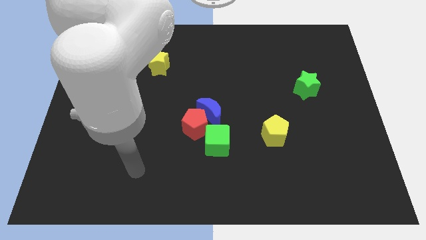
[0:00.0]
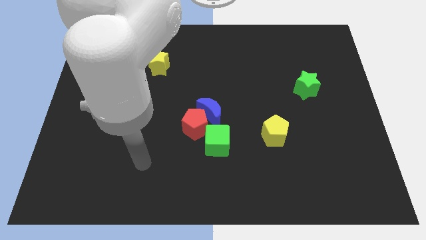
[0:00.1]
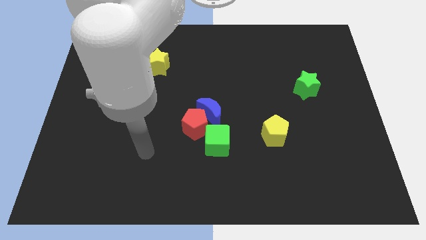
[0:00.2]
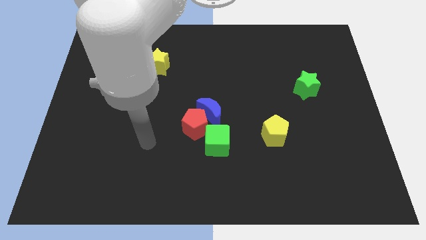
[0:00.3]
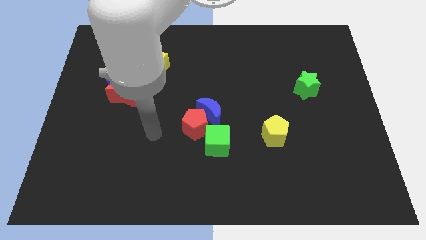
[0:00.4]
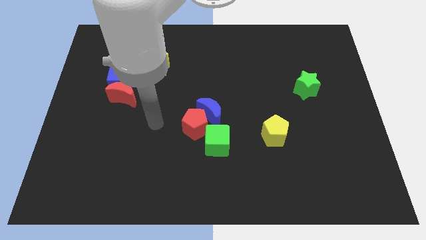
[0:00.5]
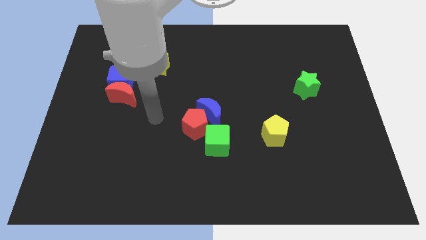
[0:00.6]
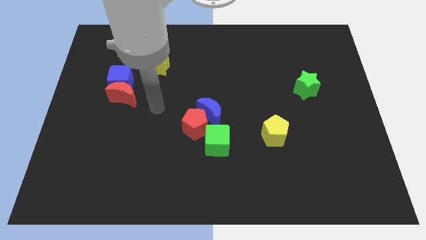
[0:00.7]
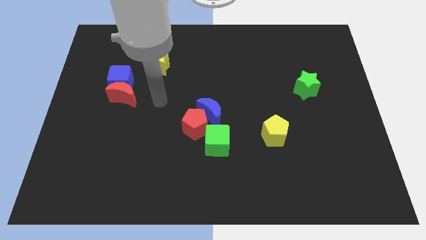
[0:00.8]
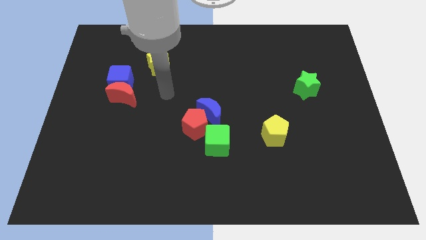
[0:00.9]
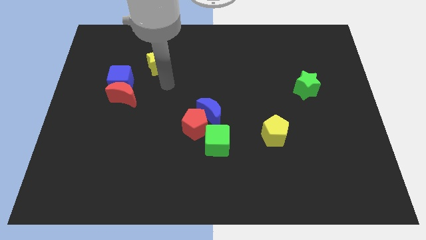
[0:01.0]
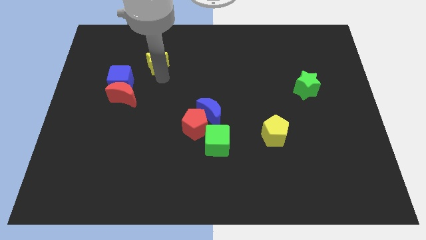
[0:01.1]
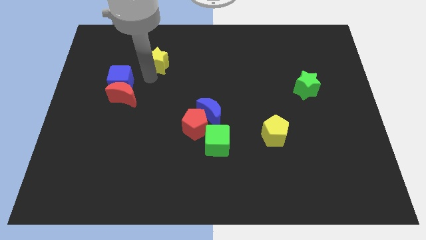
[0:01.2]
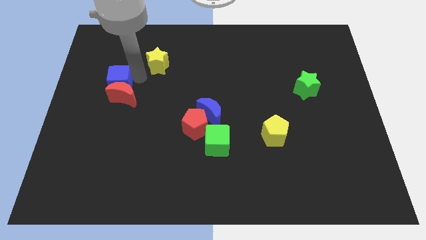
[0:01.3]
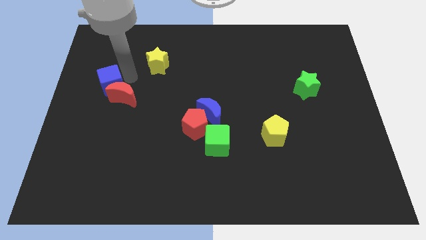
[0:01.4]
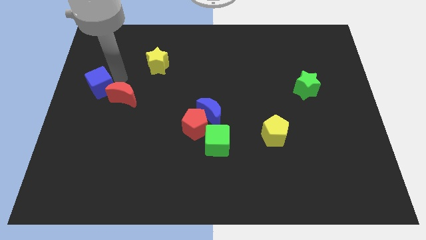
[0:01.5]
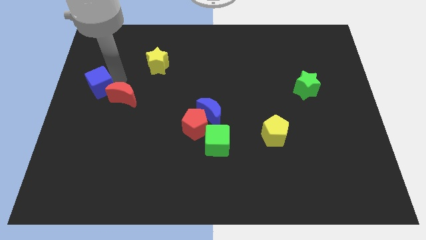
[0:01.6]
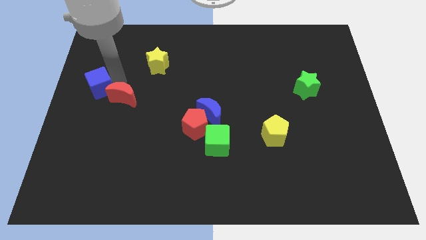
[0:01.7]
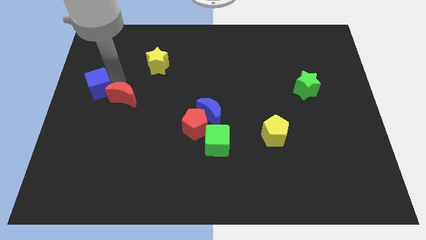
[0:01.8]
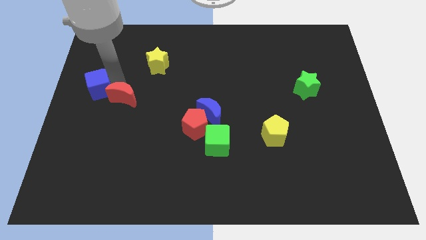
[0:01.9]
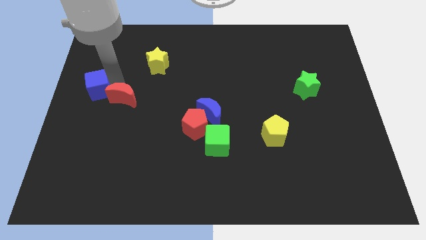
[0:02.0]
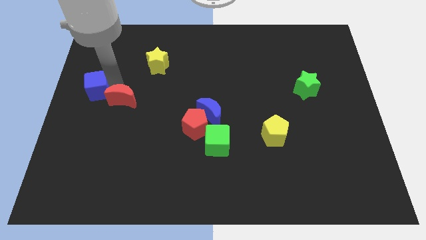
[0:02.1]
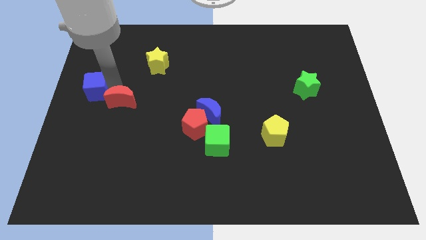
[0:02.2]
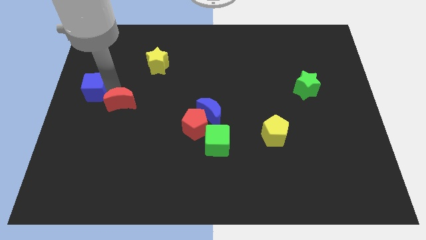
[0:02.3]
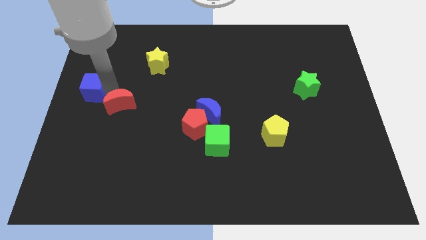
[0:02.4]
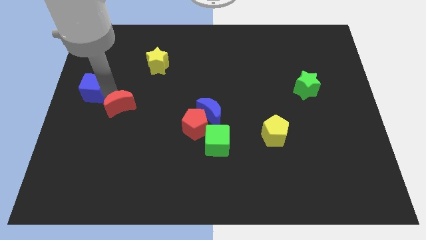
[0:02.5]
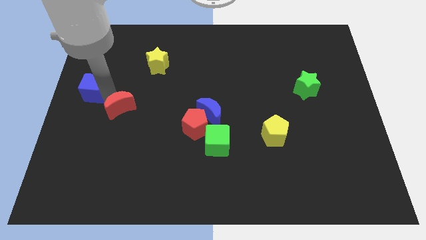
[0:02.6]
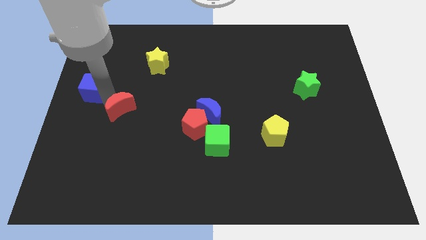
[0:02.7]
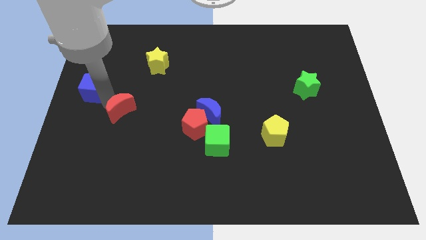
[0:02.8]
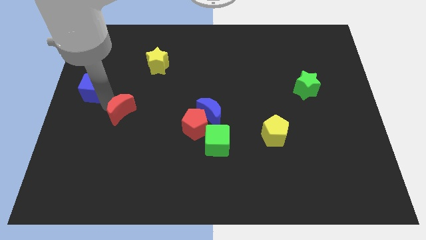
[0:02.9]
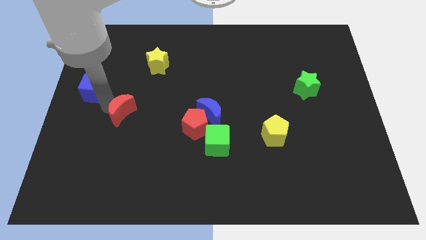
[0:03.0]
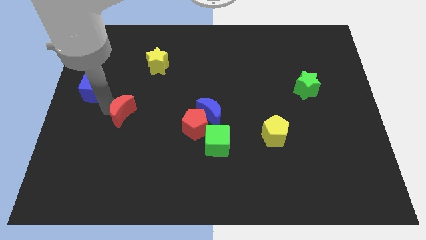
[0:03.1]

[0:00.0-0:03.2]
pull the red moon apart from the blue cube

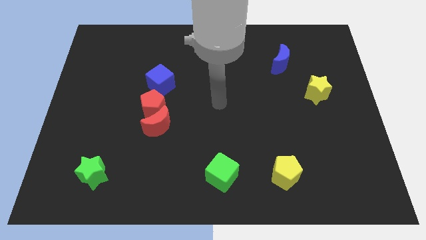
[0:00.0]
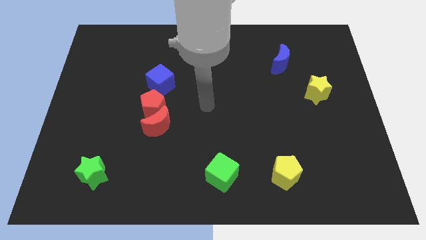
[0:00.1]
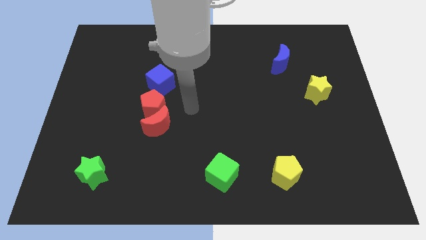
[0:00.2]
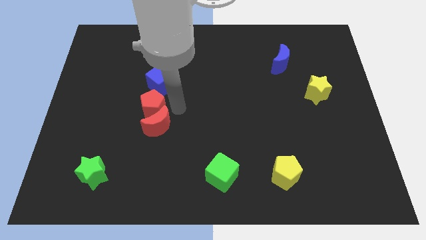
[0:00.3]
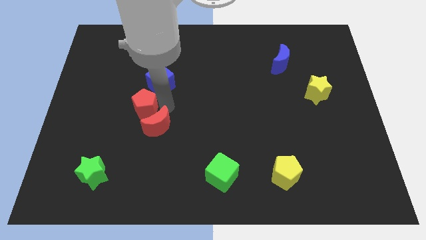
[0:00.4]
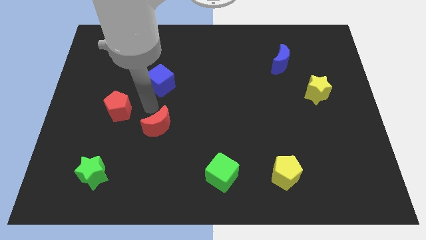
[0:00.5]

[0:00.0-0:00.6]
pull the red moon apart from the red pentagon

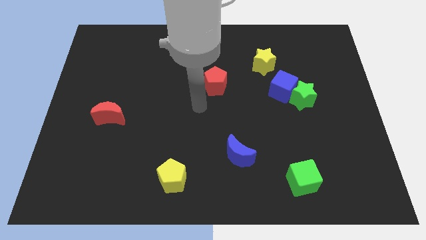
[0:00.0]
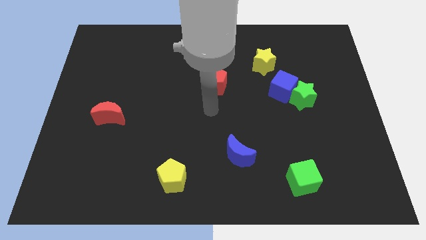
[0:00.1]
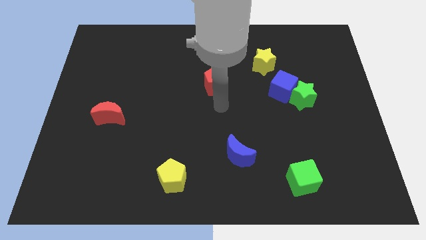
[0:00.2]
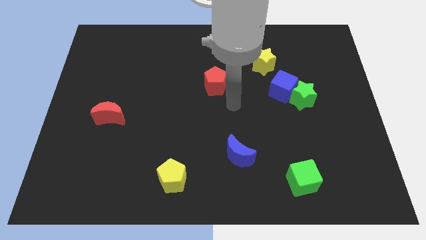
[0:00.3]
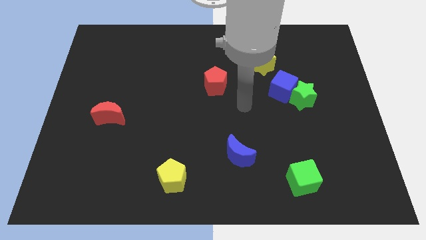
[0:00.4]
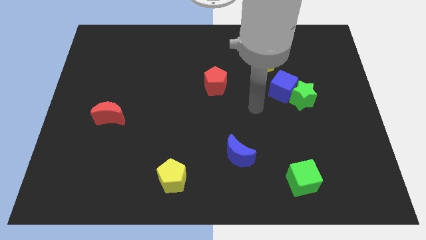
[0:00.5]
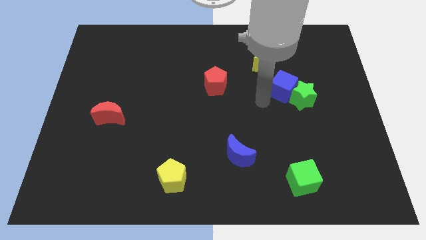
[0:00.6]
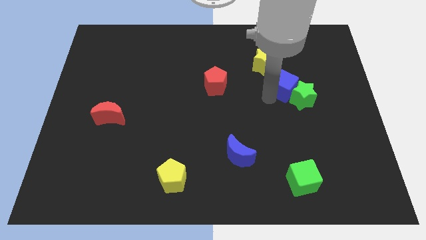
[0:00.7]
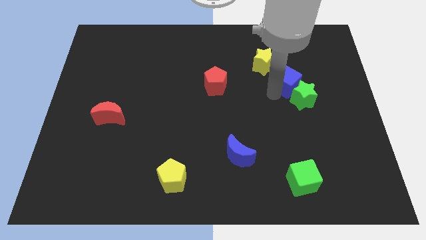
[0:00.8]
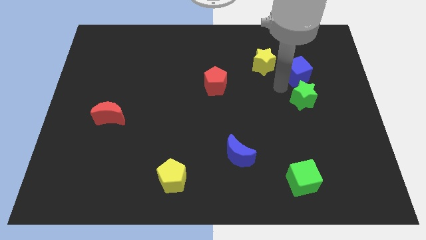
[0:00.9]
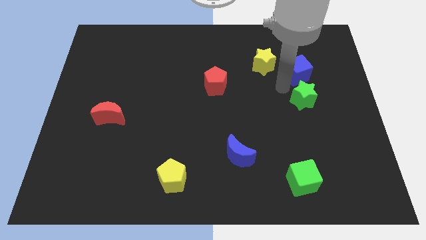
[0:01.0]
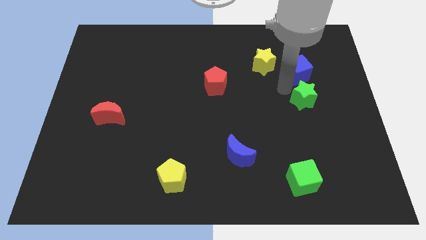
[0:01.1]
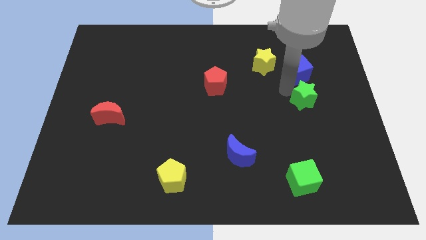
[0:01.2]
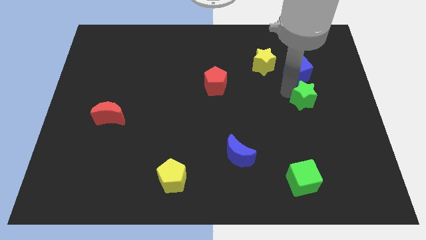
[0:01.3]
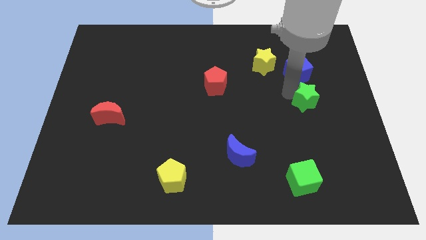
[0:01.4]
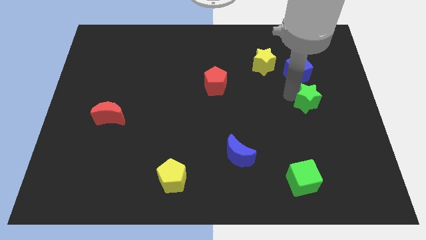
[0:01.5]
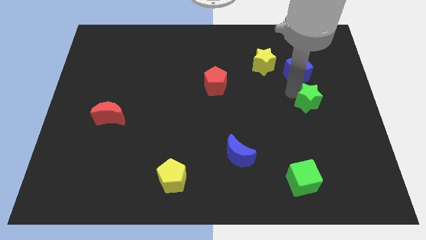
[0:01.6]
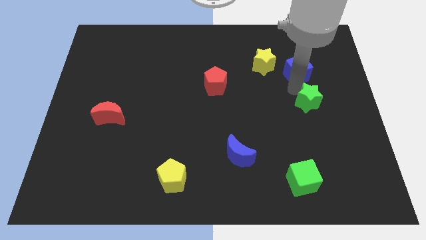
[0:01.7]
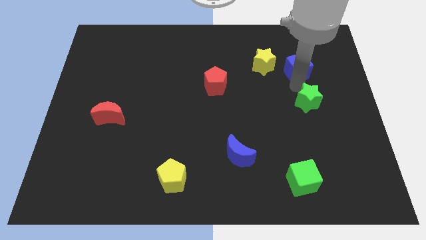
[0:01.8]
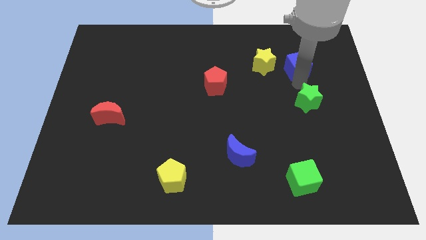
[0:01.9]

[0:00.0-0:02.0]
pull the green star apart from the blue cube

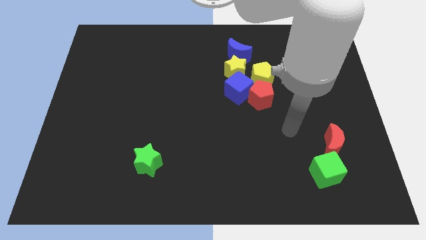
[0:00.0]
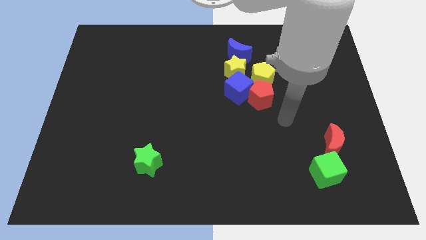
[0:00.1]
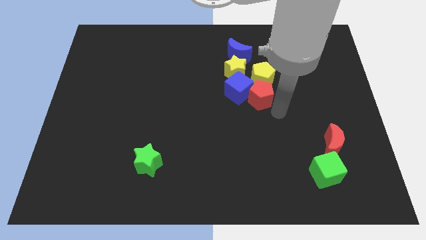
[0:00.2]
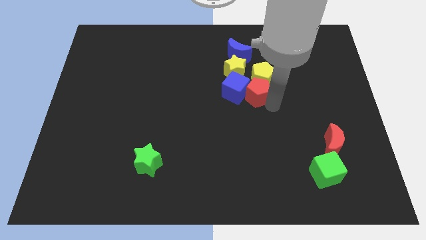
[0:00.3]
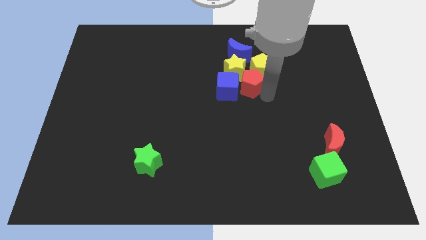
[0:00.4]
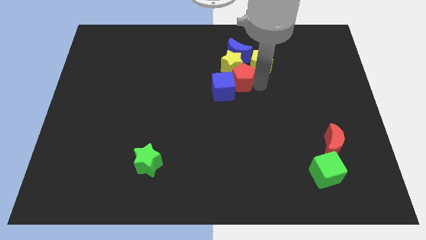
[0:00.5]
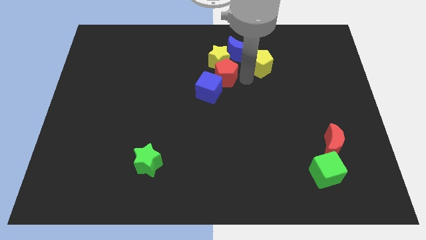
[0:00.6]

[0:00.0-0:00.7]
move the blue cube away from the red pentagon, yellow star, and yellow pentagon

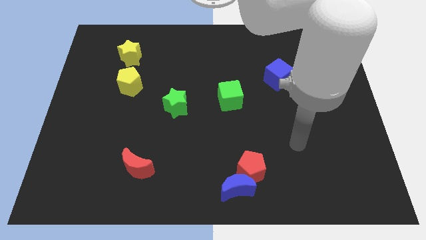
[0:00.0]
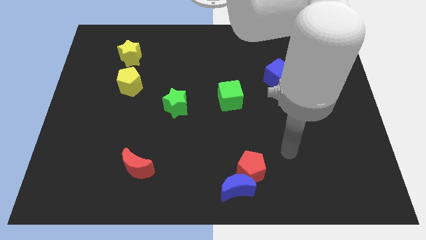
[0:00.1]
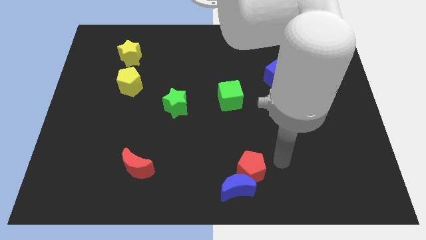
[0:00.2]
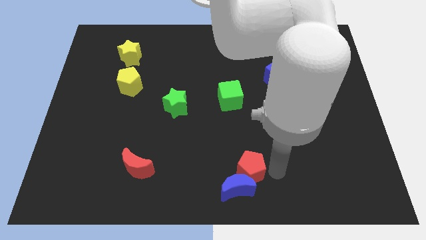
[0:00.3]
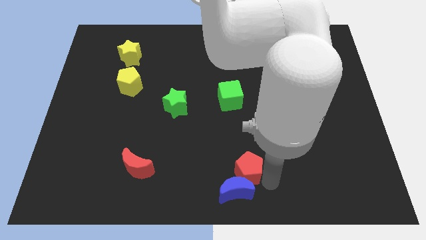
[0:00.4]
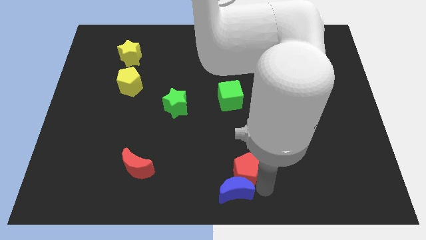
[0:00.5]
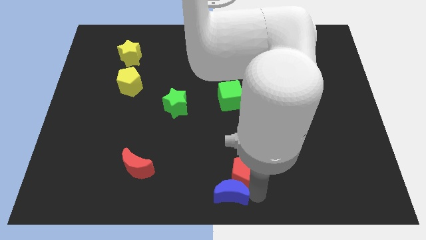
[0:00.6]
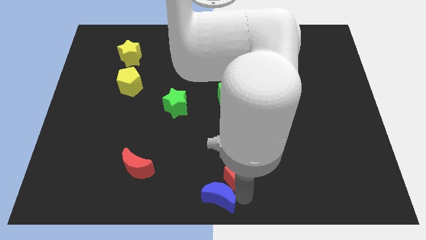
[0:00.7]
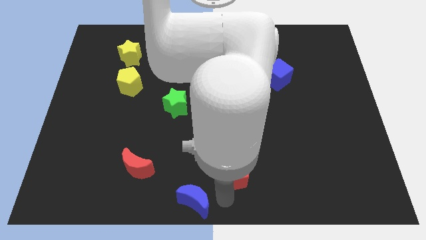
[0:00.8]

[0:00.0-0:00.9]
move the red pentagon away from the blue moon

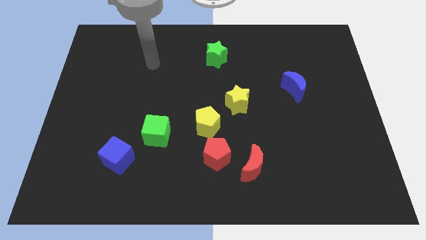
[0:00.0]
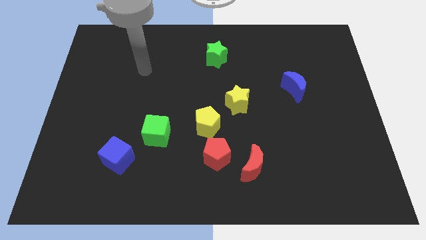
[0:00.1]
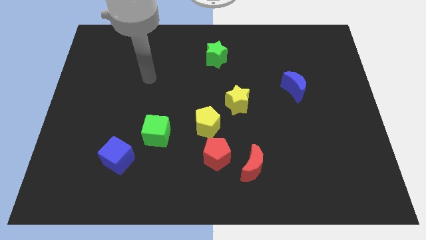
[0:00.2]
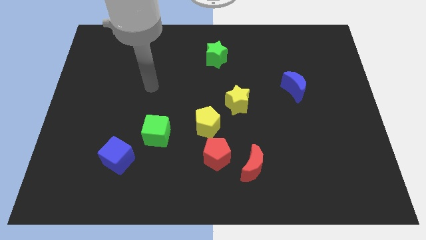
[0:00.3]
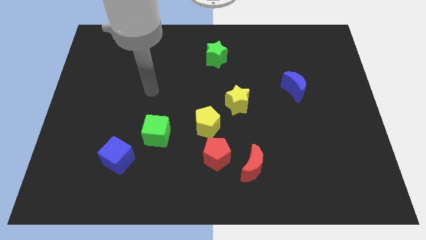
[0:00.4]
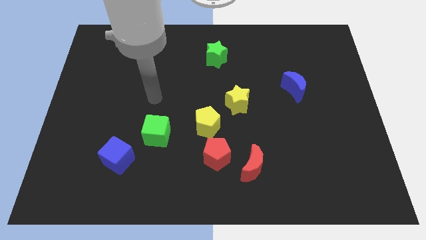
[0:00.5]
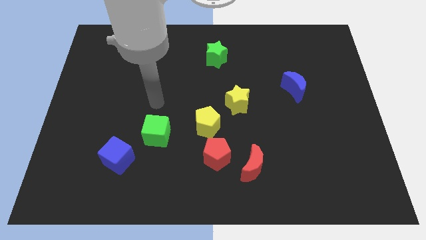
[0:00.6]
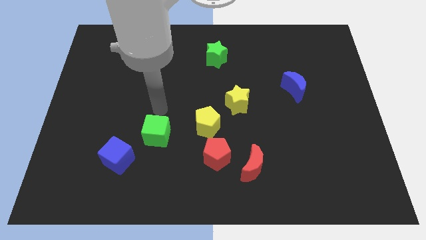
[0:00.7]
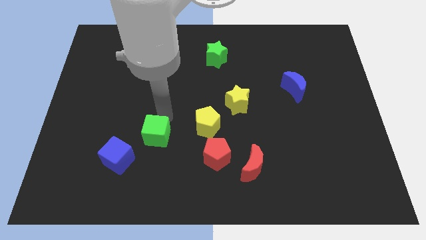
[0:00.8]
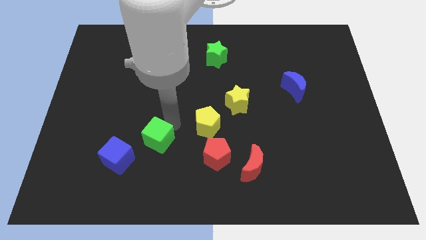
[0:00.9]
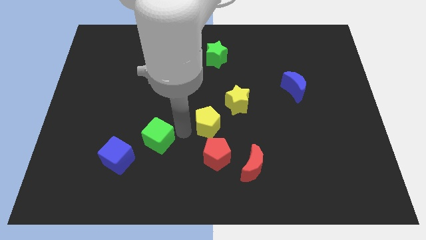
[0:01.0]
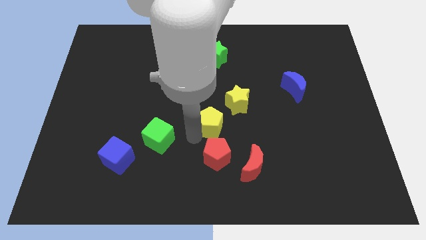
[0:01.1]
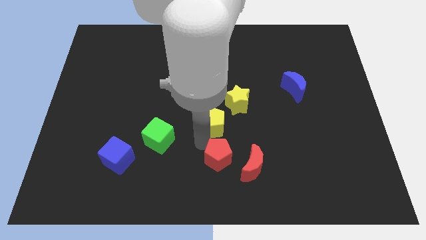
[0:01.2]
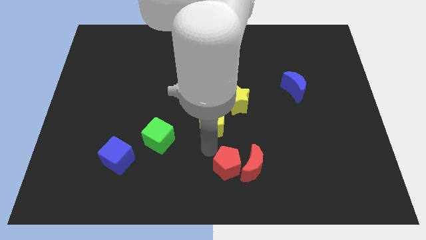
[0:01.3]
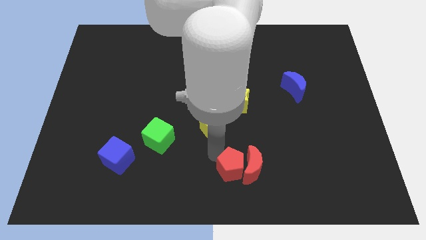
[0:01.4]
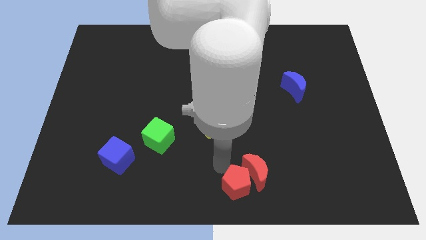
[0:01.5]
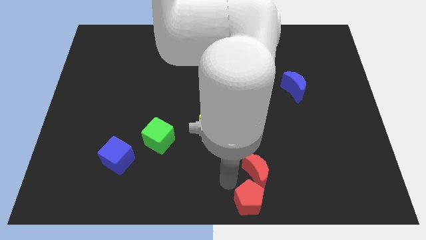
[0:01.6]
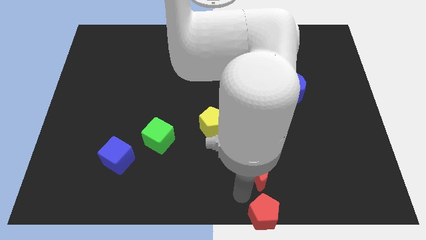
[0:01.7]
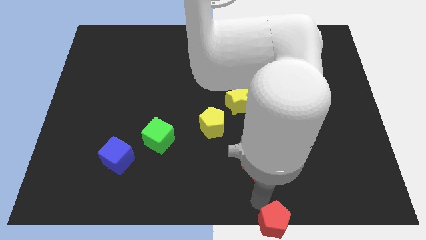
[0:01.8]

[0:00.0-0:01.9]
separate the red moon from the red pentagon

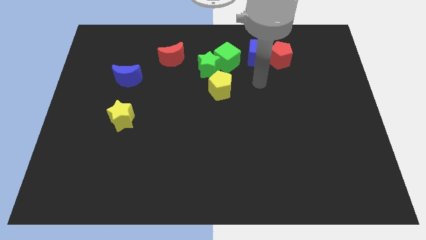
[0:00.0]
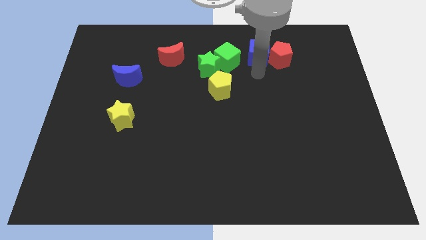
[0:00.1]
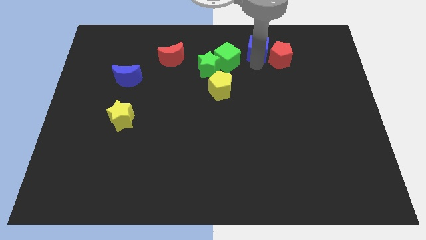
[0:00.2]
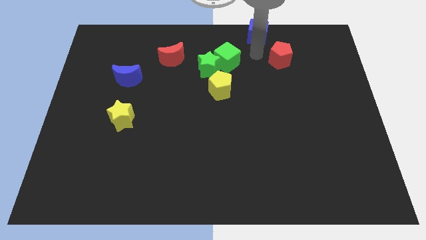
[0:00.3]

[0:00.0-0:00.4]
pull the red pentagon apart from the blue cube
